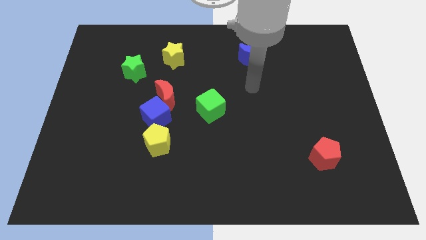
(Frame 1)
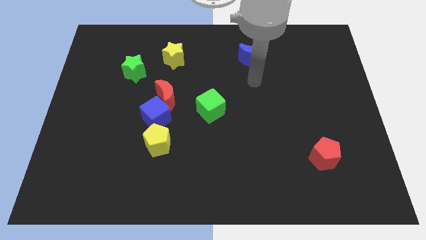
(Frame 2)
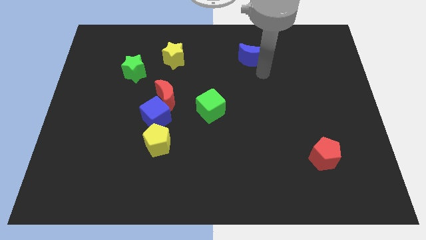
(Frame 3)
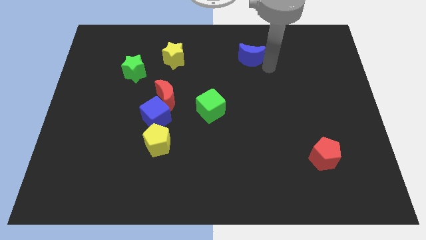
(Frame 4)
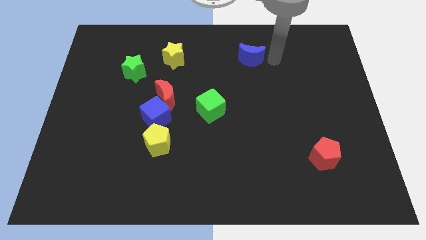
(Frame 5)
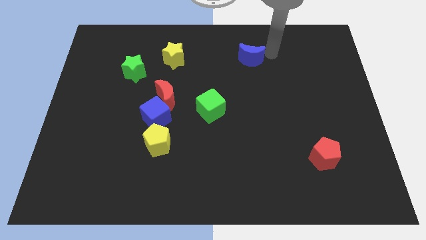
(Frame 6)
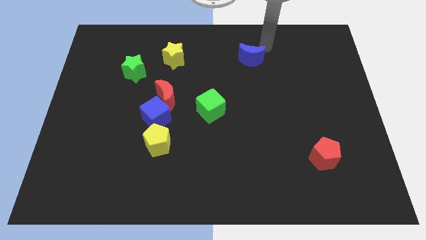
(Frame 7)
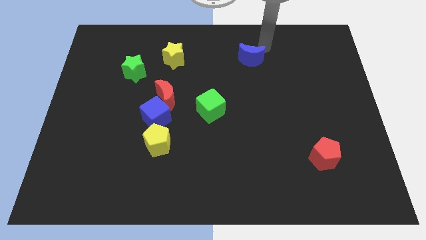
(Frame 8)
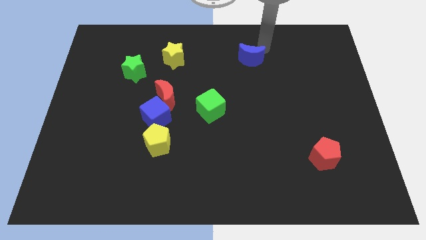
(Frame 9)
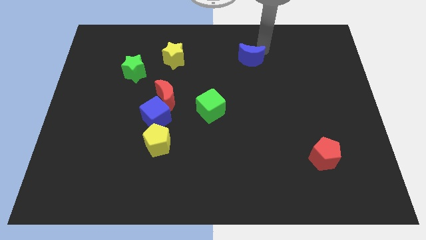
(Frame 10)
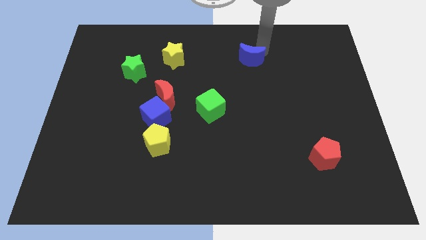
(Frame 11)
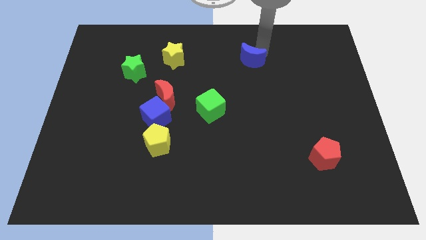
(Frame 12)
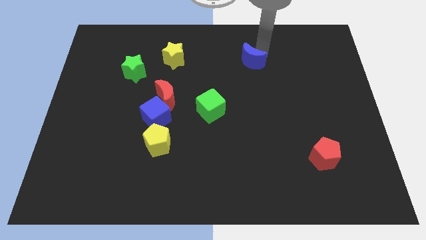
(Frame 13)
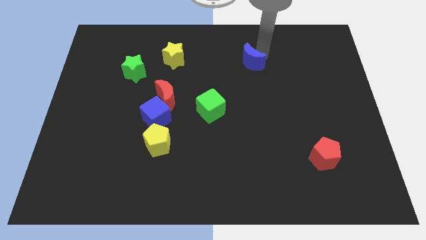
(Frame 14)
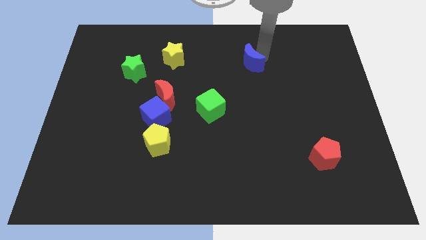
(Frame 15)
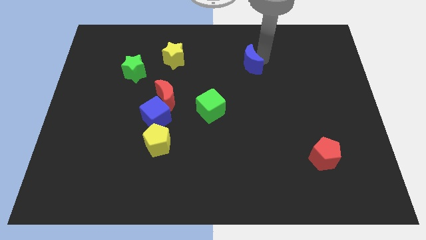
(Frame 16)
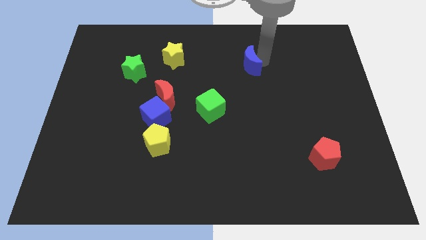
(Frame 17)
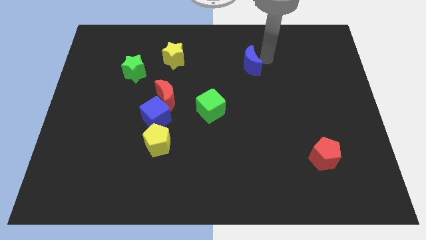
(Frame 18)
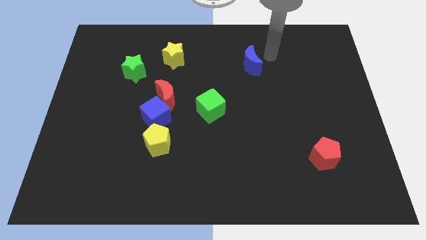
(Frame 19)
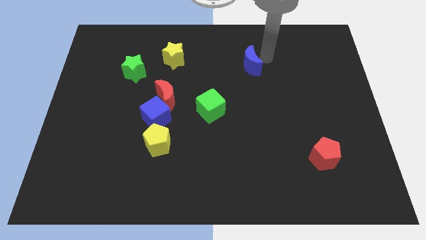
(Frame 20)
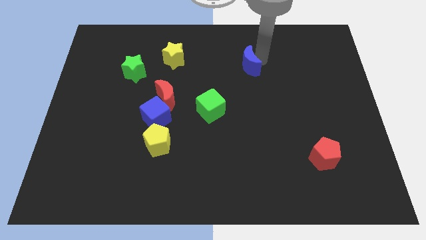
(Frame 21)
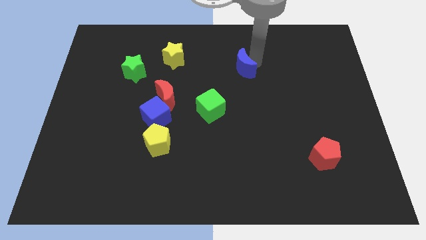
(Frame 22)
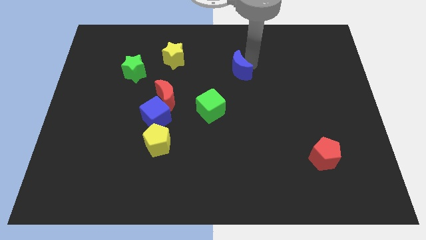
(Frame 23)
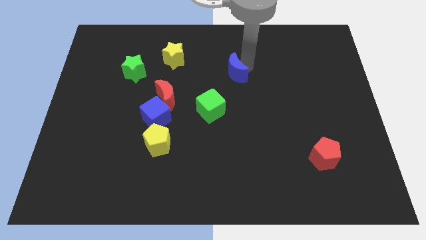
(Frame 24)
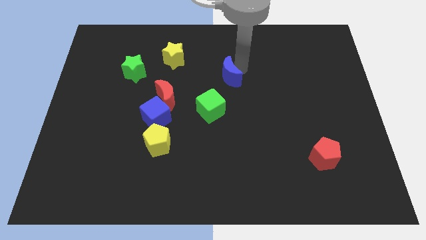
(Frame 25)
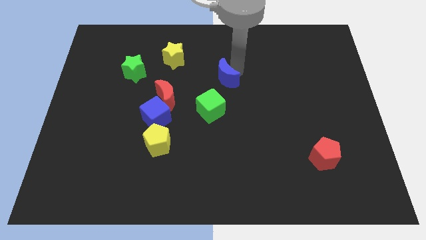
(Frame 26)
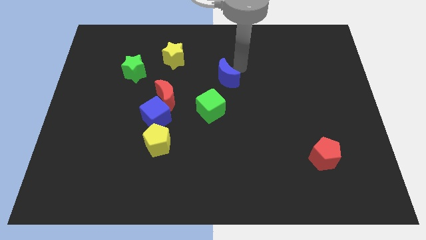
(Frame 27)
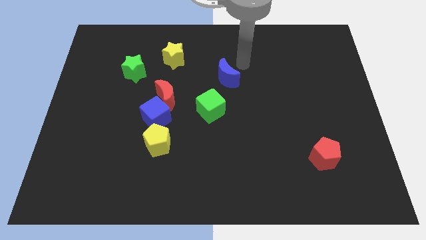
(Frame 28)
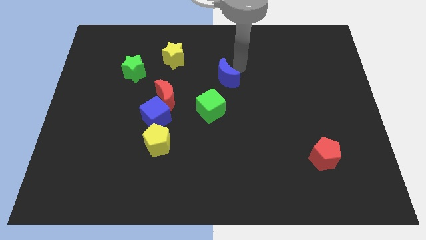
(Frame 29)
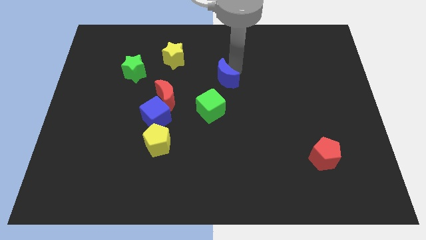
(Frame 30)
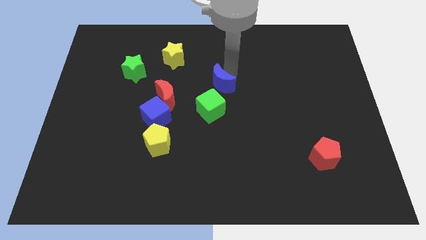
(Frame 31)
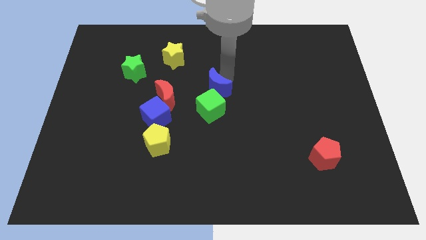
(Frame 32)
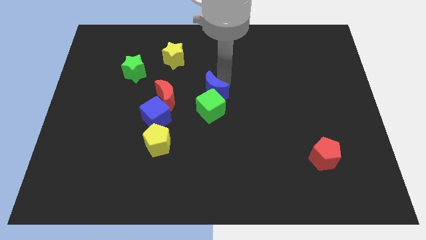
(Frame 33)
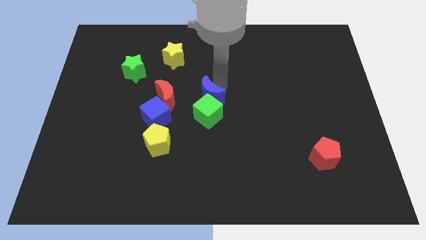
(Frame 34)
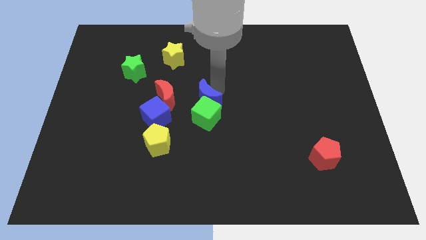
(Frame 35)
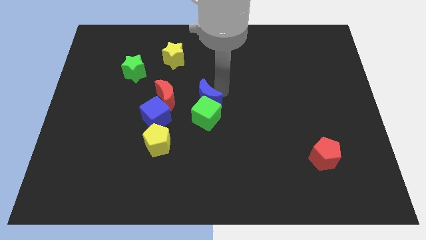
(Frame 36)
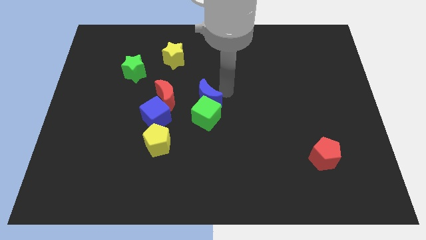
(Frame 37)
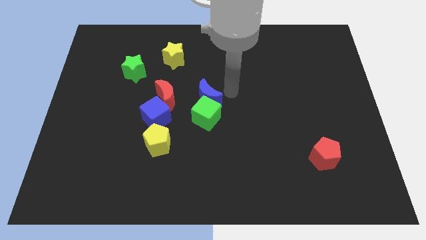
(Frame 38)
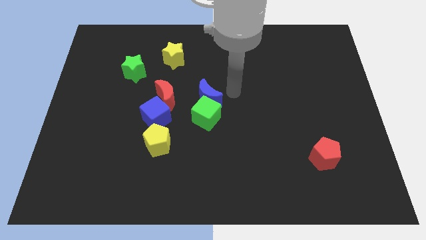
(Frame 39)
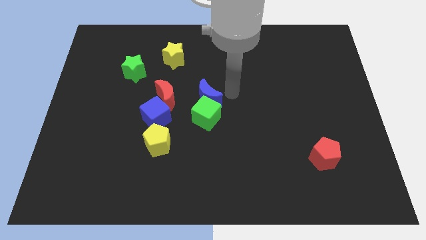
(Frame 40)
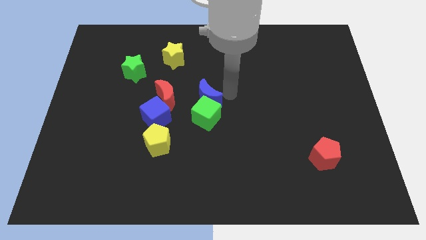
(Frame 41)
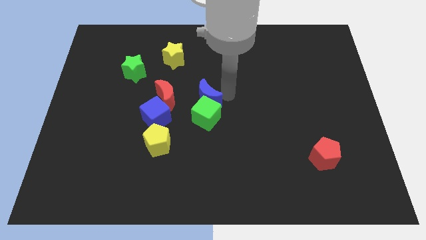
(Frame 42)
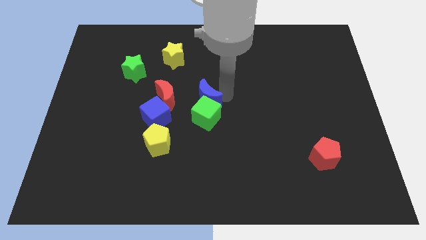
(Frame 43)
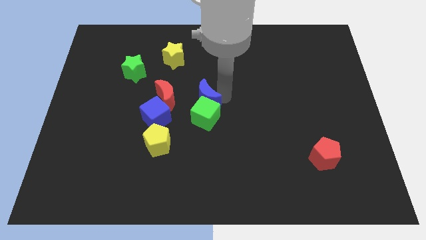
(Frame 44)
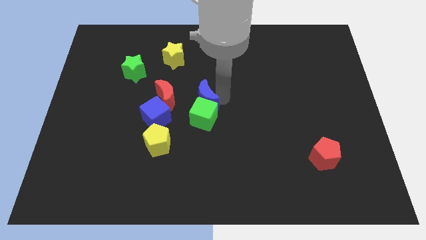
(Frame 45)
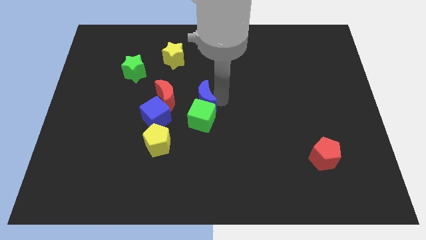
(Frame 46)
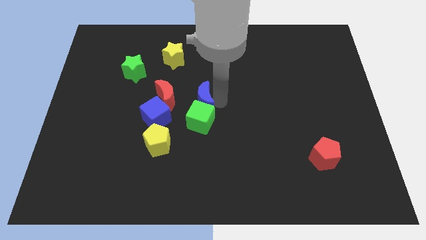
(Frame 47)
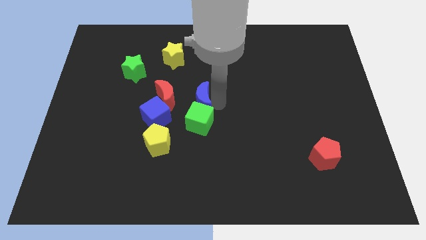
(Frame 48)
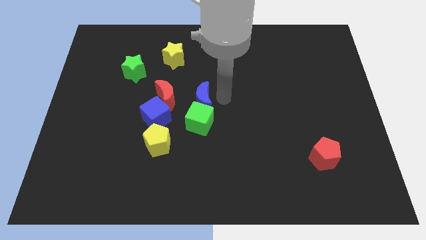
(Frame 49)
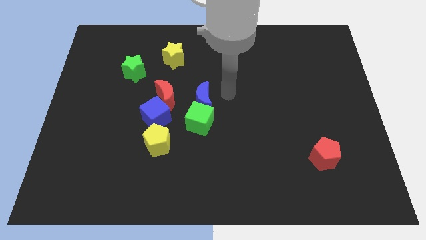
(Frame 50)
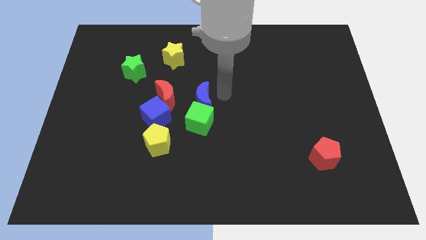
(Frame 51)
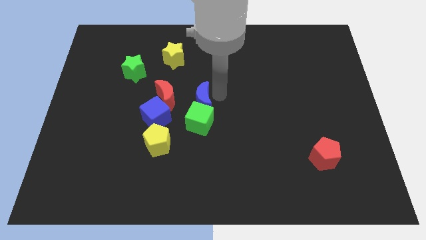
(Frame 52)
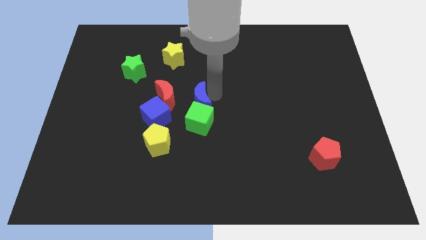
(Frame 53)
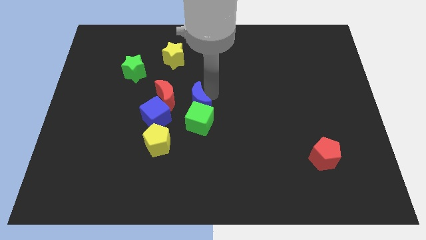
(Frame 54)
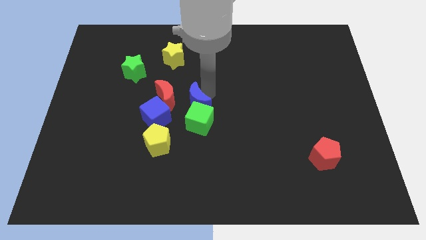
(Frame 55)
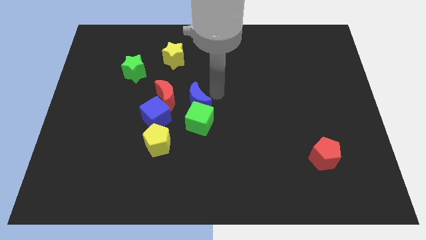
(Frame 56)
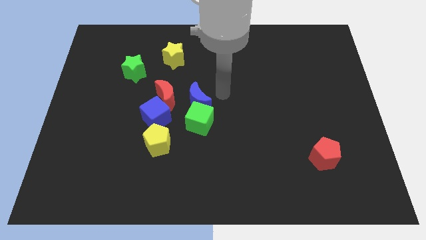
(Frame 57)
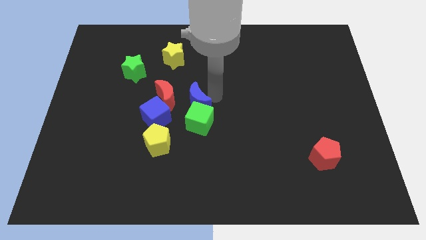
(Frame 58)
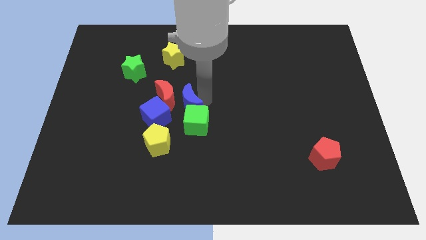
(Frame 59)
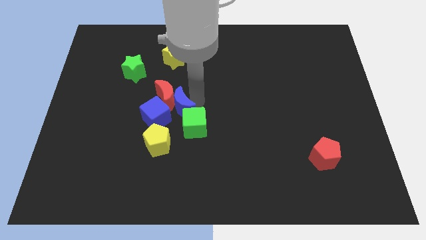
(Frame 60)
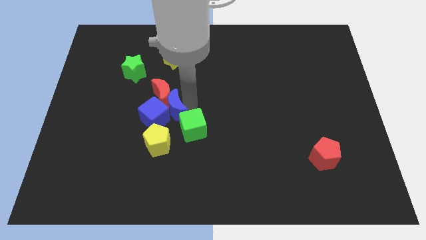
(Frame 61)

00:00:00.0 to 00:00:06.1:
put the blue moon towards the blue cube
